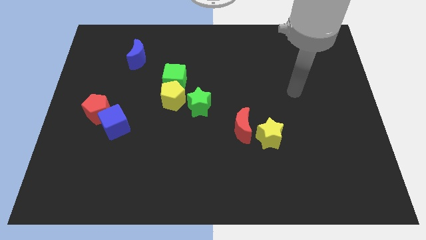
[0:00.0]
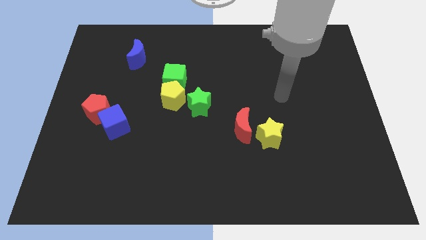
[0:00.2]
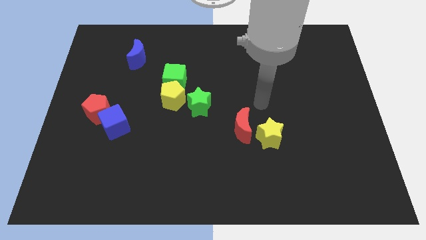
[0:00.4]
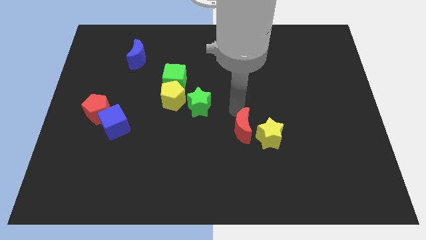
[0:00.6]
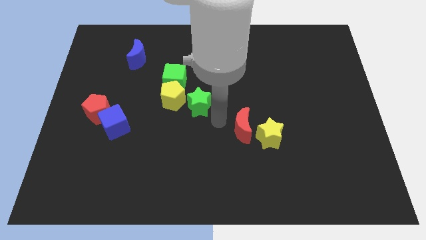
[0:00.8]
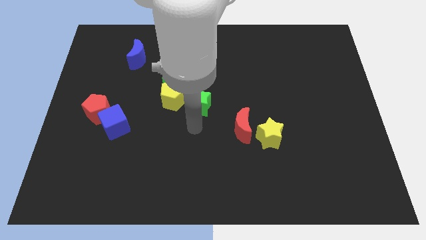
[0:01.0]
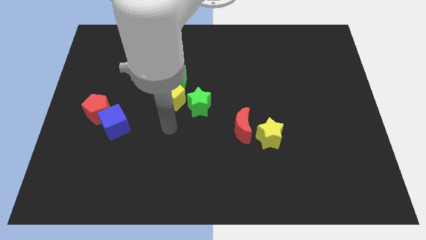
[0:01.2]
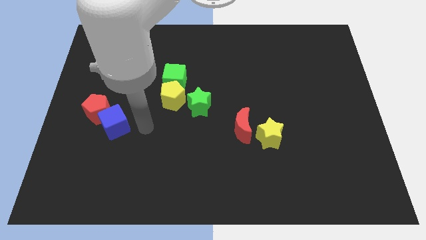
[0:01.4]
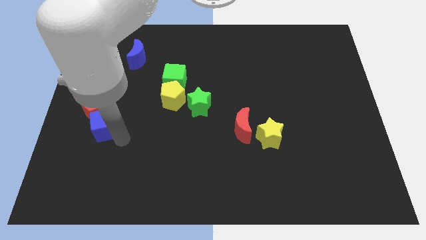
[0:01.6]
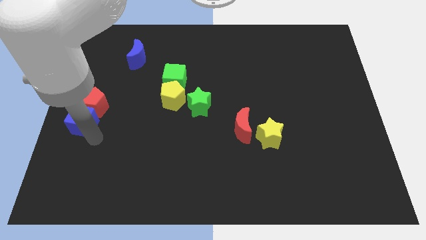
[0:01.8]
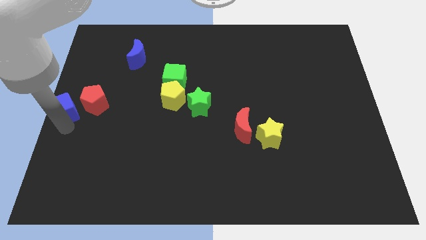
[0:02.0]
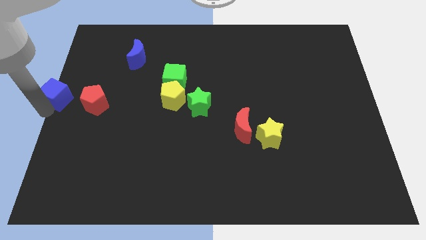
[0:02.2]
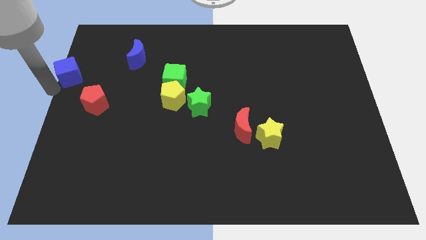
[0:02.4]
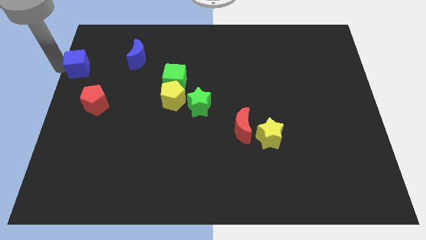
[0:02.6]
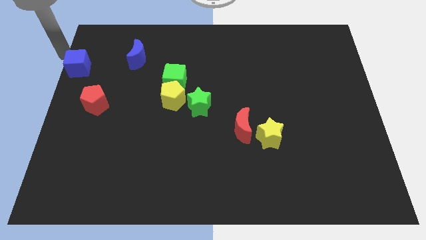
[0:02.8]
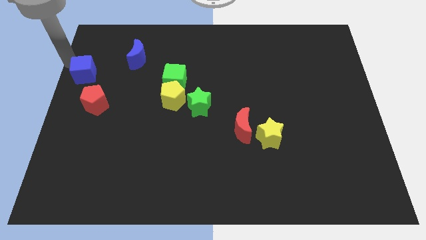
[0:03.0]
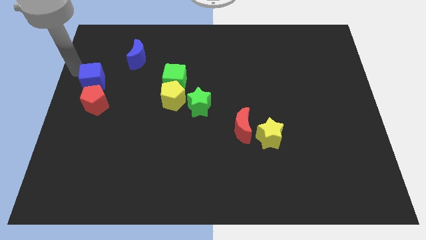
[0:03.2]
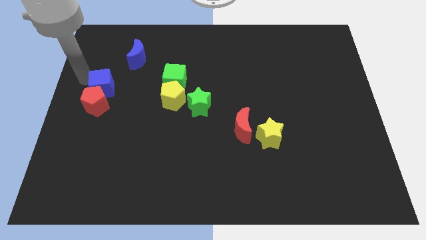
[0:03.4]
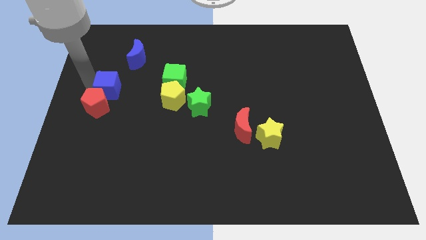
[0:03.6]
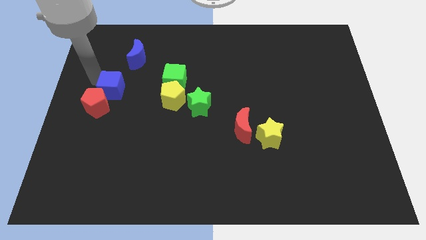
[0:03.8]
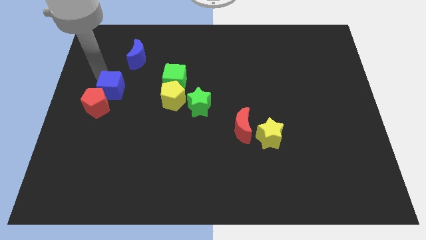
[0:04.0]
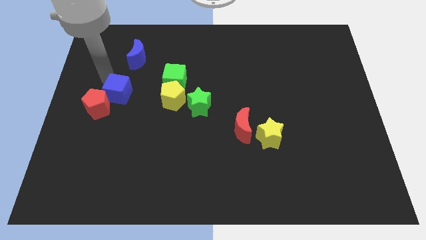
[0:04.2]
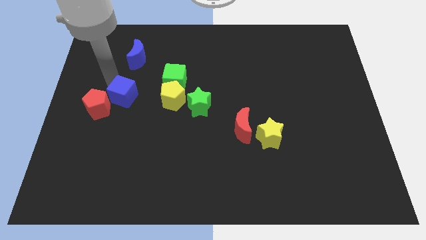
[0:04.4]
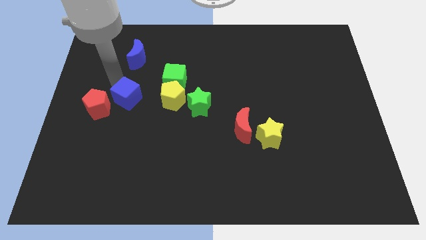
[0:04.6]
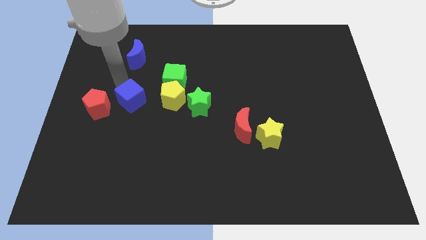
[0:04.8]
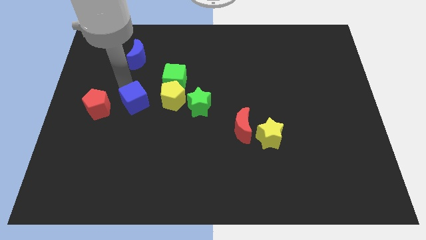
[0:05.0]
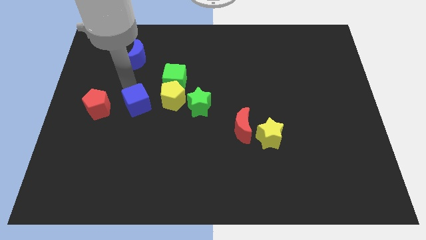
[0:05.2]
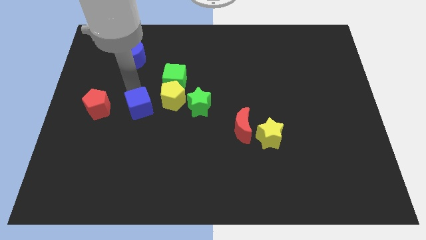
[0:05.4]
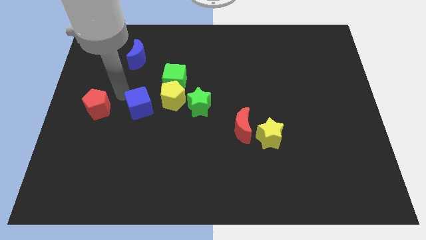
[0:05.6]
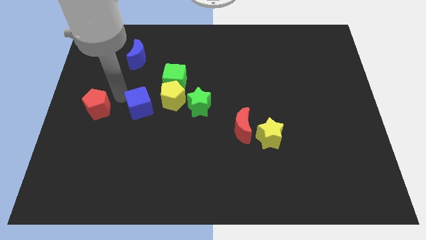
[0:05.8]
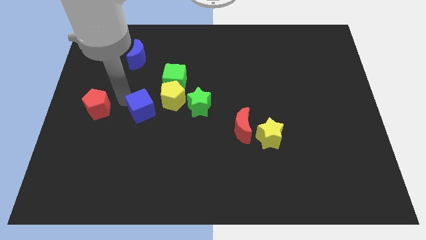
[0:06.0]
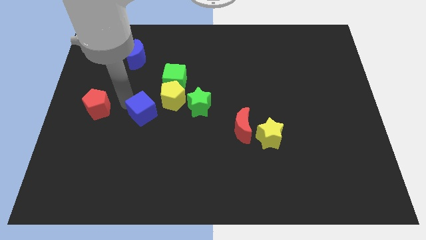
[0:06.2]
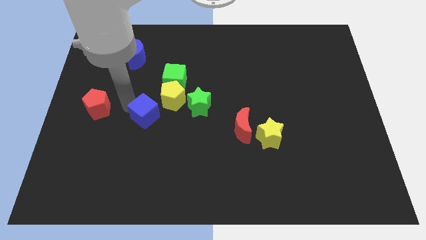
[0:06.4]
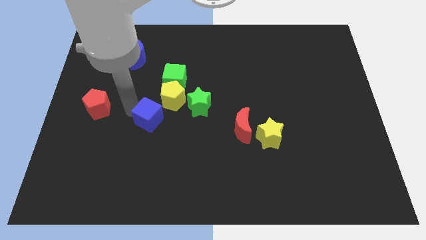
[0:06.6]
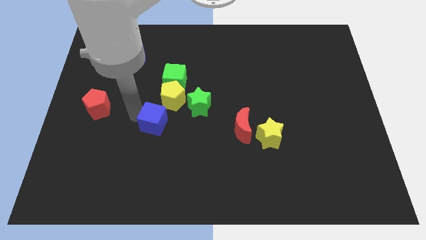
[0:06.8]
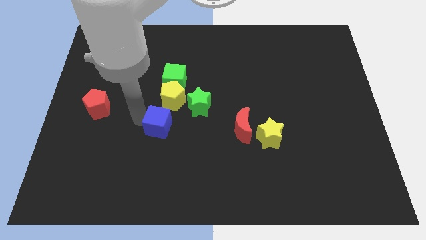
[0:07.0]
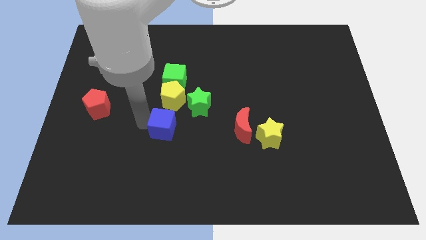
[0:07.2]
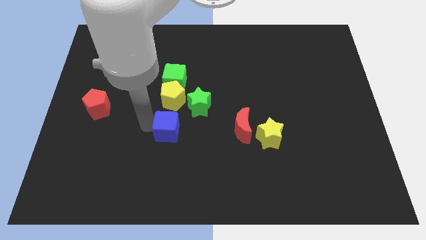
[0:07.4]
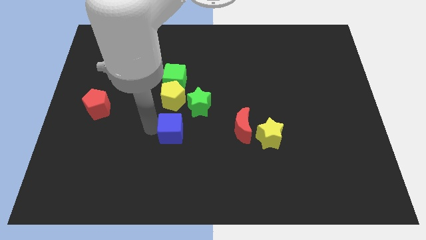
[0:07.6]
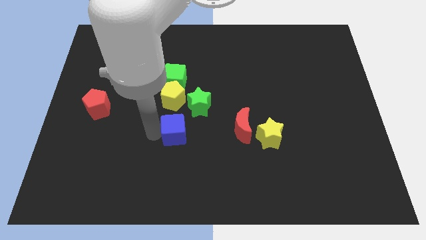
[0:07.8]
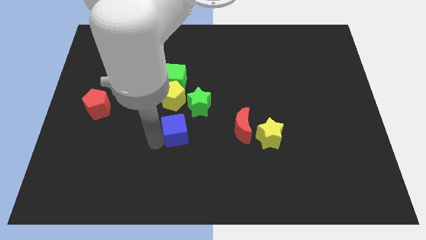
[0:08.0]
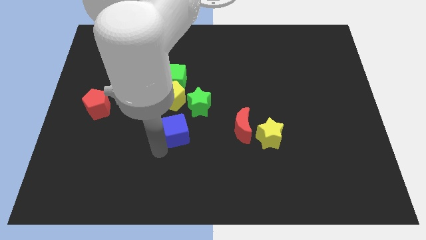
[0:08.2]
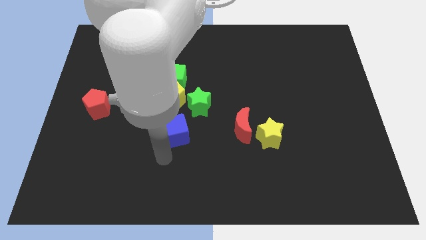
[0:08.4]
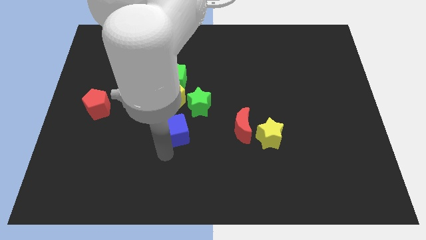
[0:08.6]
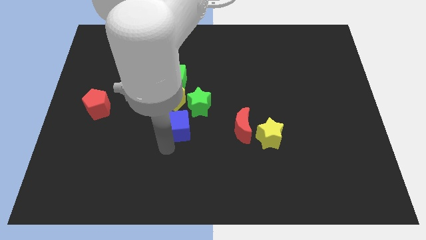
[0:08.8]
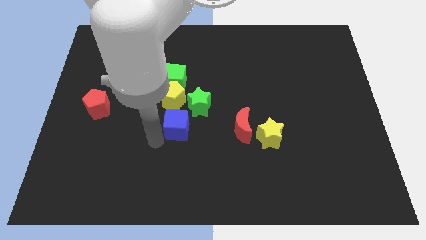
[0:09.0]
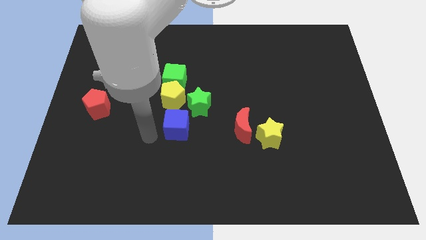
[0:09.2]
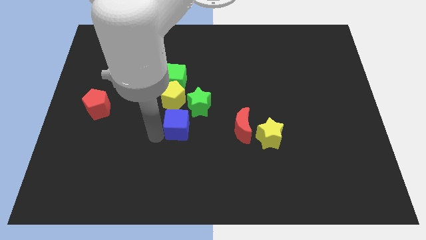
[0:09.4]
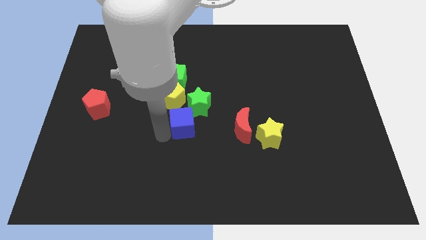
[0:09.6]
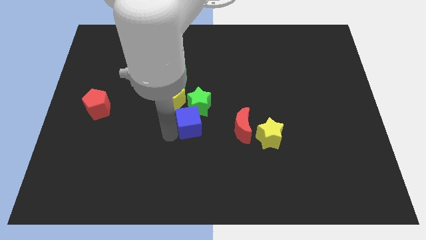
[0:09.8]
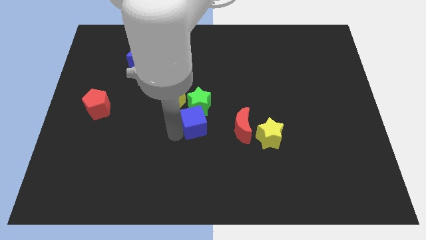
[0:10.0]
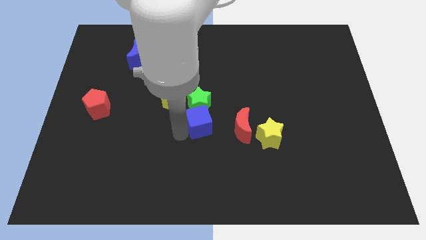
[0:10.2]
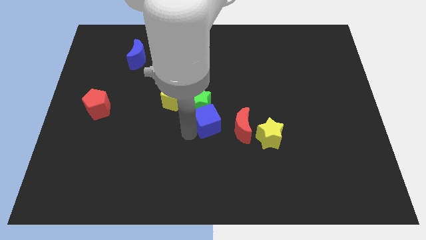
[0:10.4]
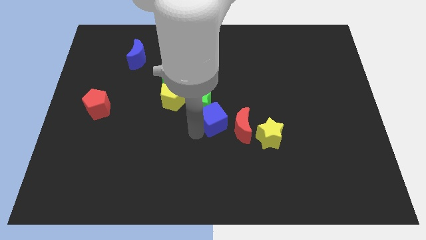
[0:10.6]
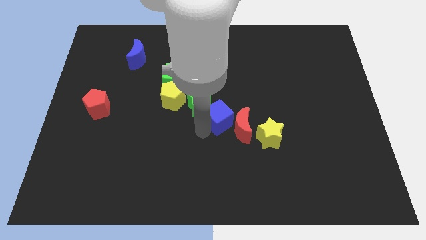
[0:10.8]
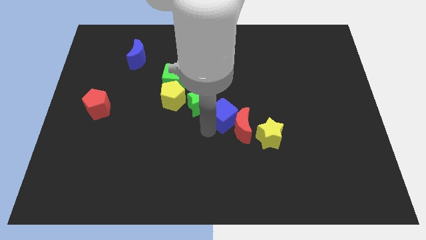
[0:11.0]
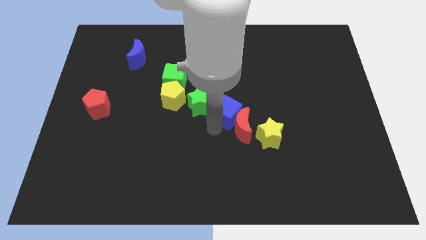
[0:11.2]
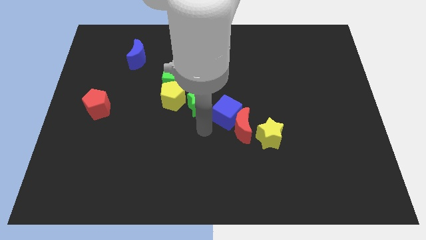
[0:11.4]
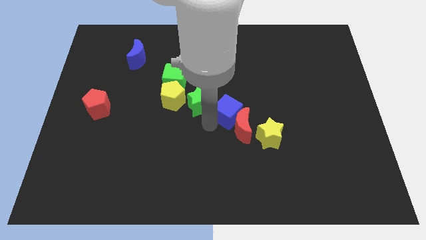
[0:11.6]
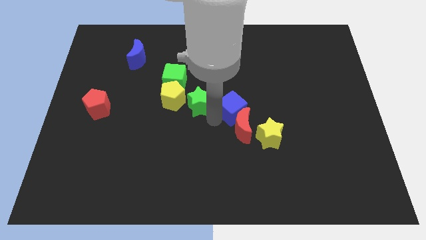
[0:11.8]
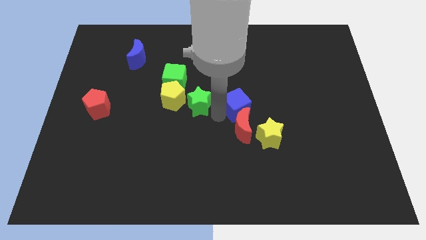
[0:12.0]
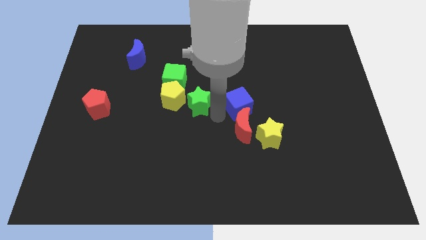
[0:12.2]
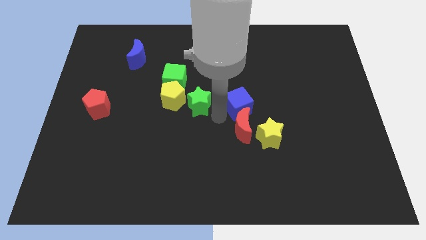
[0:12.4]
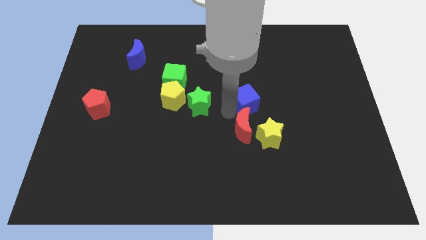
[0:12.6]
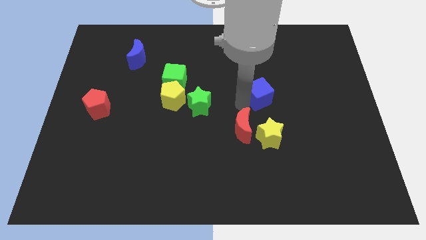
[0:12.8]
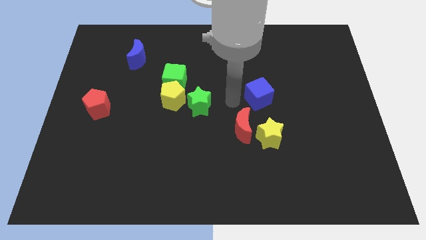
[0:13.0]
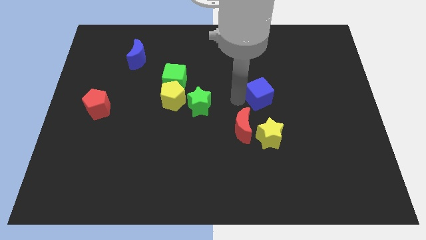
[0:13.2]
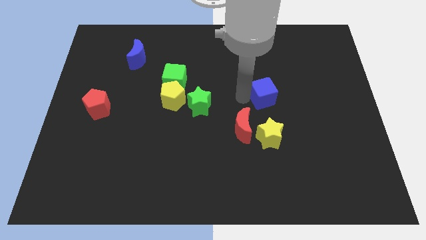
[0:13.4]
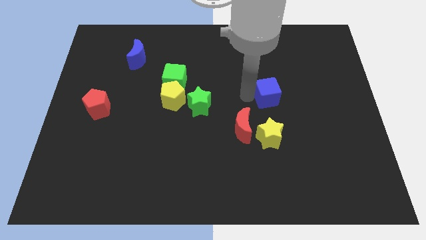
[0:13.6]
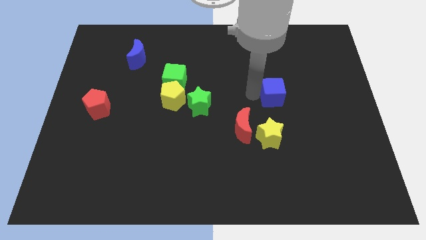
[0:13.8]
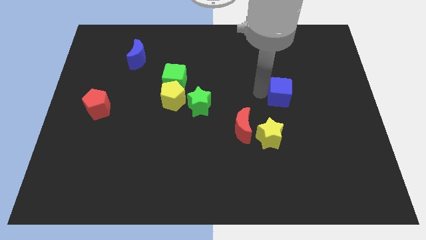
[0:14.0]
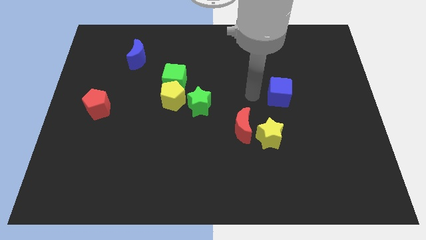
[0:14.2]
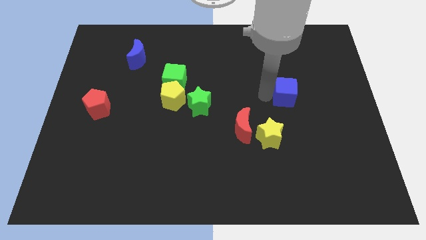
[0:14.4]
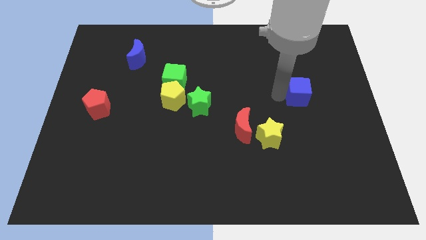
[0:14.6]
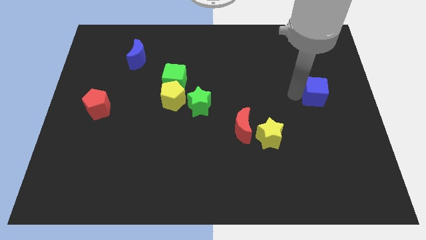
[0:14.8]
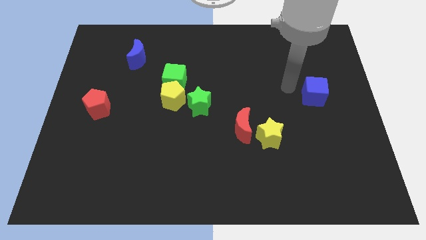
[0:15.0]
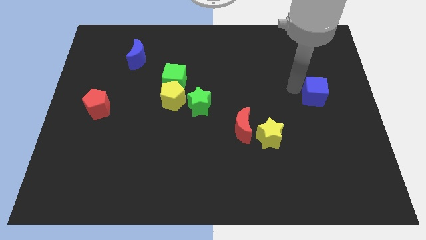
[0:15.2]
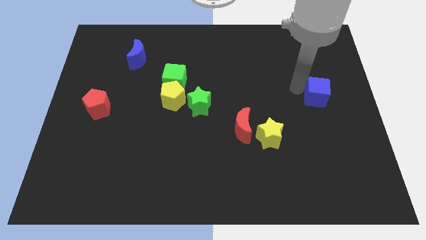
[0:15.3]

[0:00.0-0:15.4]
put the blue cube to the right side
